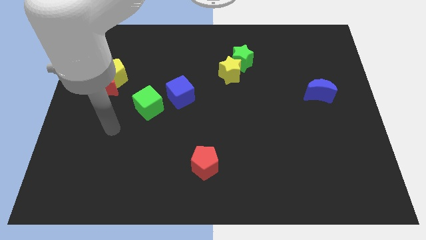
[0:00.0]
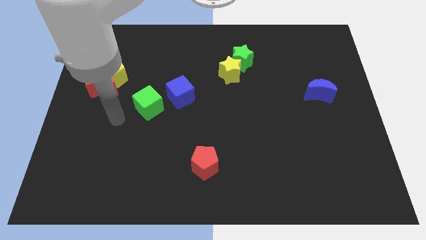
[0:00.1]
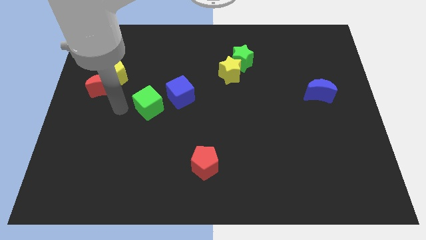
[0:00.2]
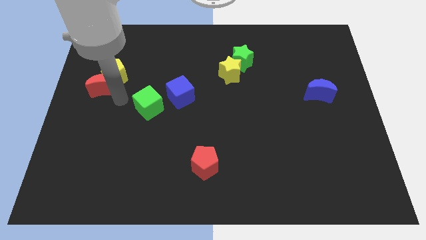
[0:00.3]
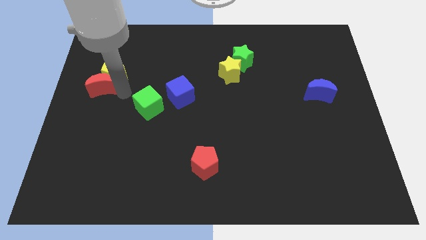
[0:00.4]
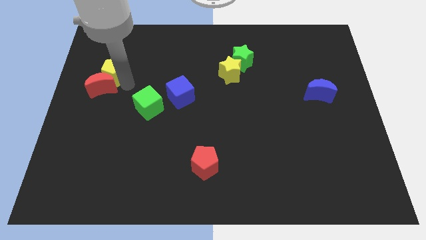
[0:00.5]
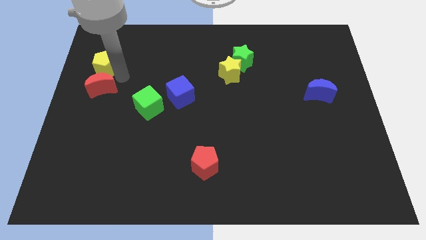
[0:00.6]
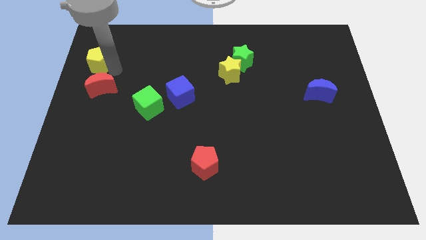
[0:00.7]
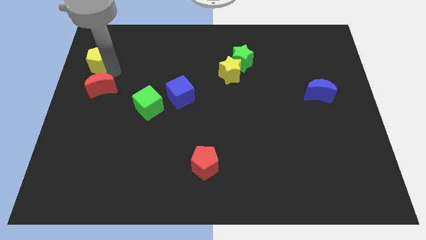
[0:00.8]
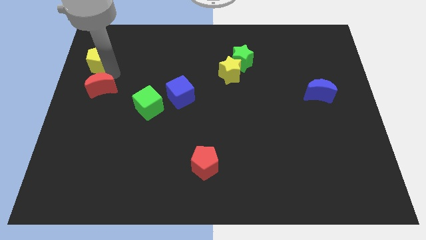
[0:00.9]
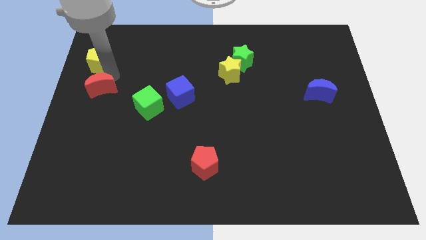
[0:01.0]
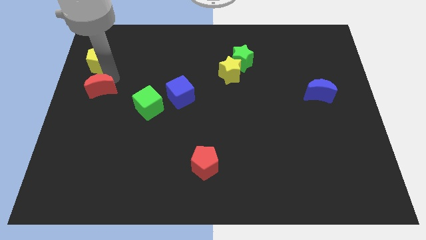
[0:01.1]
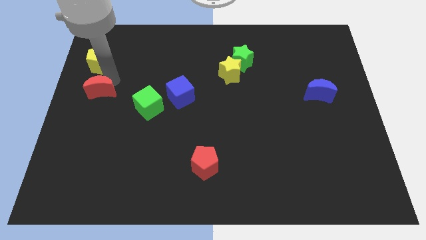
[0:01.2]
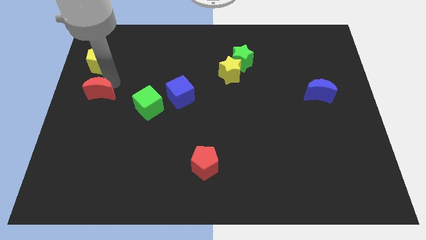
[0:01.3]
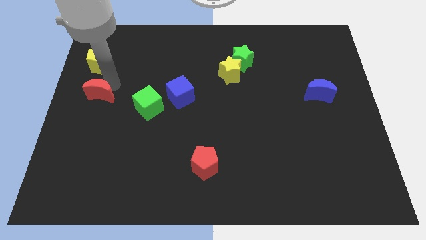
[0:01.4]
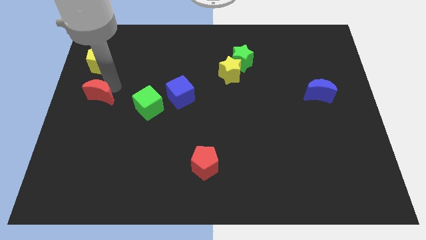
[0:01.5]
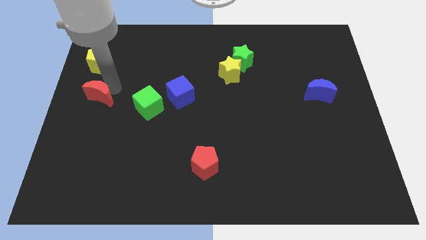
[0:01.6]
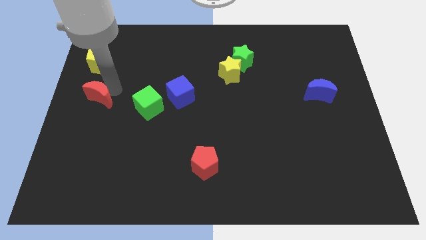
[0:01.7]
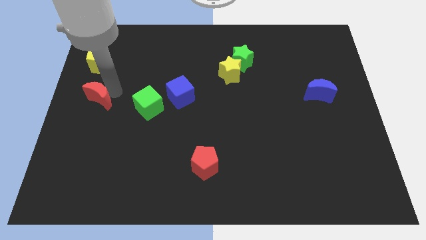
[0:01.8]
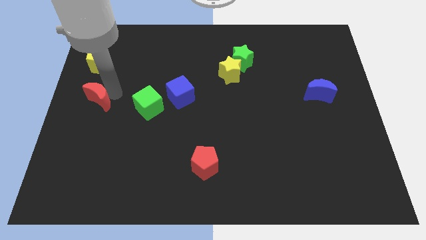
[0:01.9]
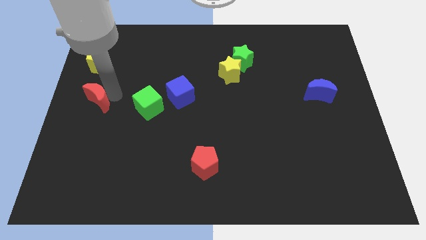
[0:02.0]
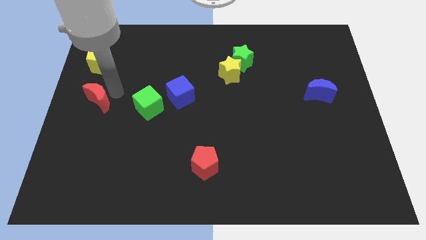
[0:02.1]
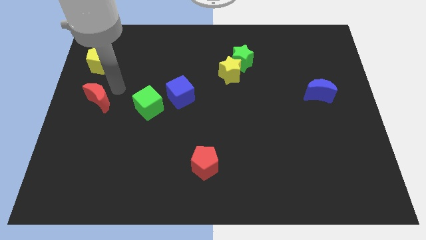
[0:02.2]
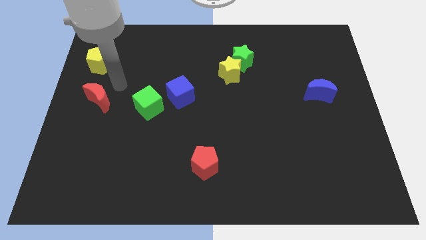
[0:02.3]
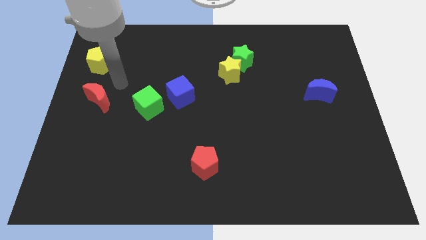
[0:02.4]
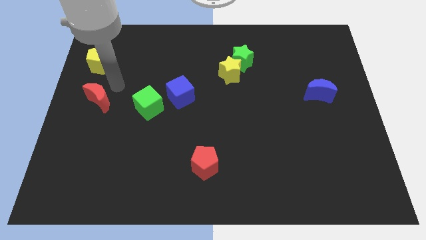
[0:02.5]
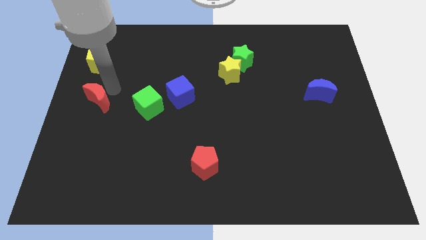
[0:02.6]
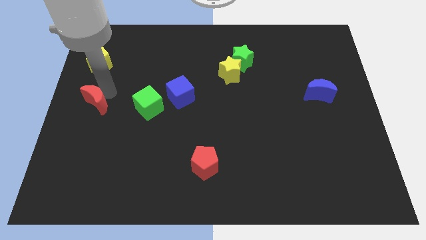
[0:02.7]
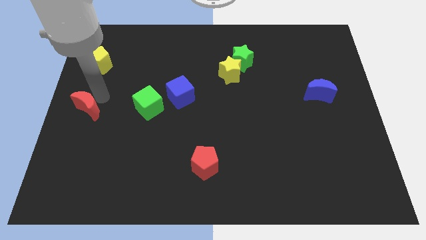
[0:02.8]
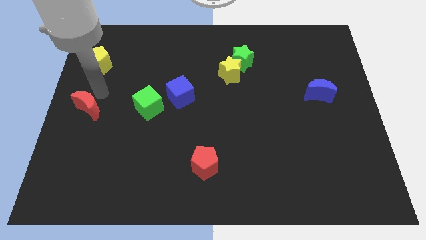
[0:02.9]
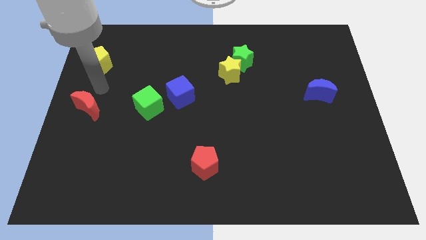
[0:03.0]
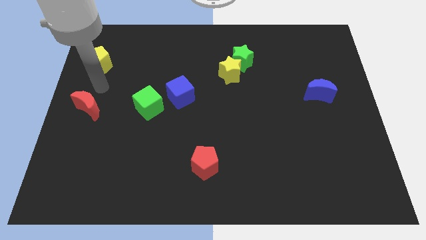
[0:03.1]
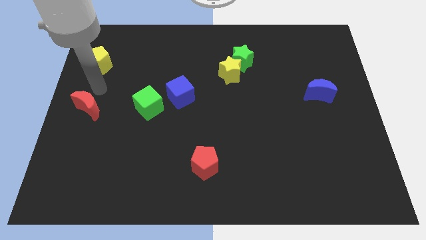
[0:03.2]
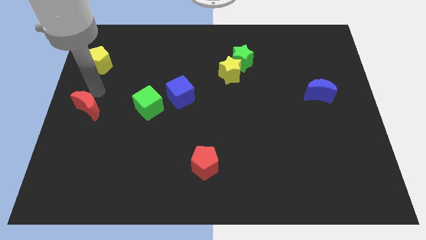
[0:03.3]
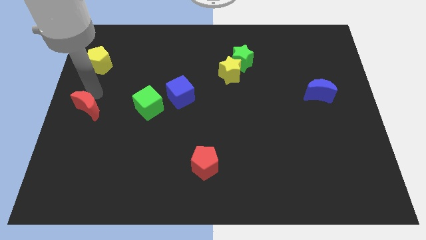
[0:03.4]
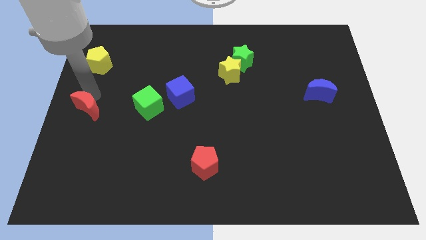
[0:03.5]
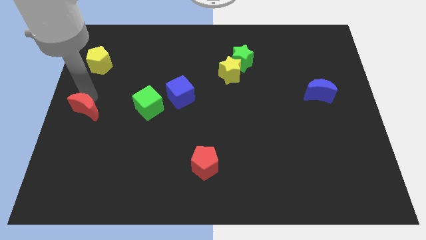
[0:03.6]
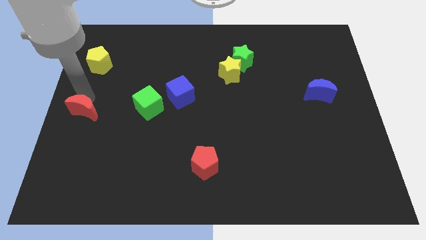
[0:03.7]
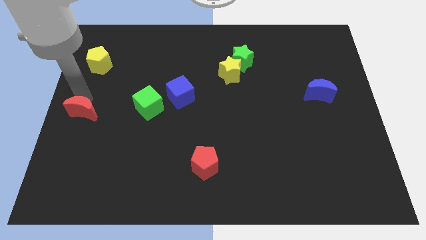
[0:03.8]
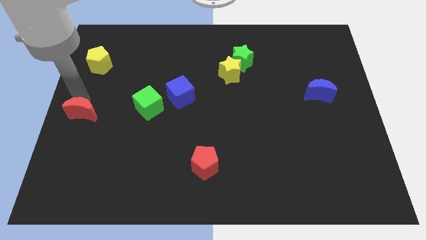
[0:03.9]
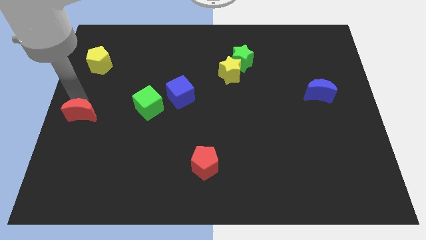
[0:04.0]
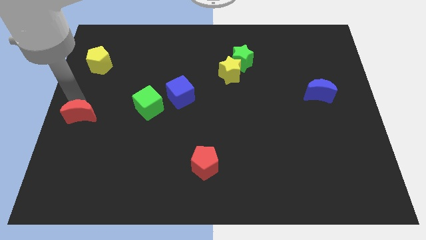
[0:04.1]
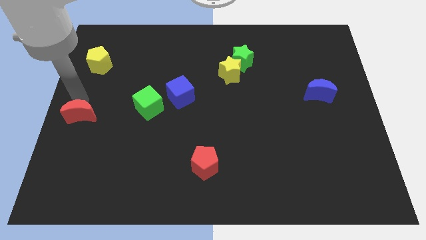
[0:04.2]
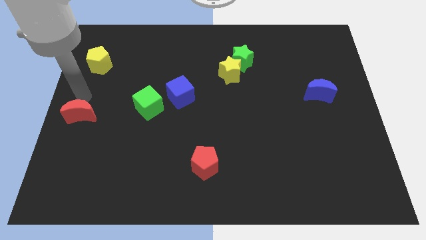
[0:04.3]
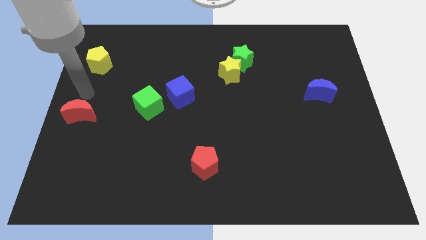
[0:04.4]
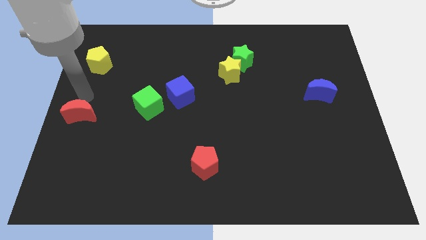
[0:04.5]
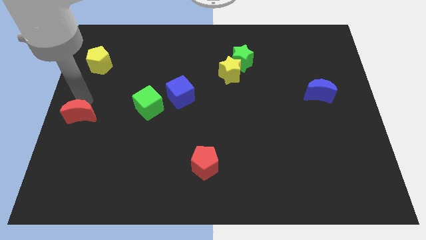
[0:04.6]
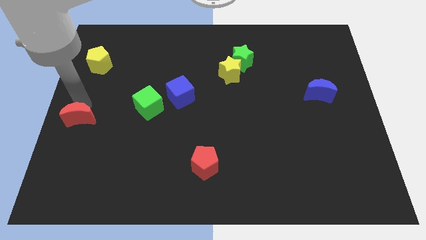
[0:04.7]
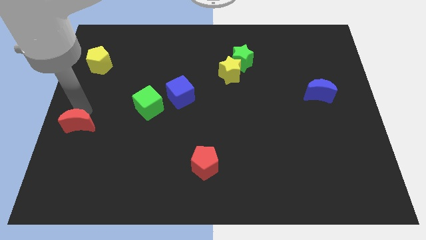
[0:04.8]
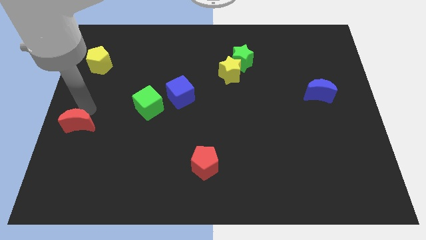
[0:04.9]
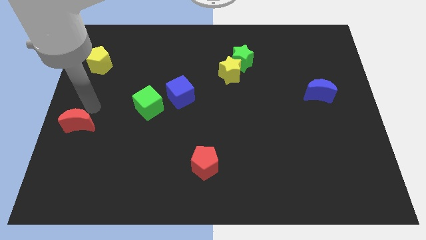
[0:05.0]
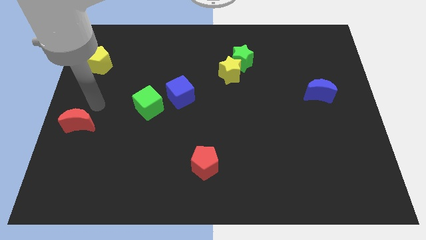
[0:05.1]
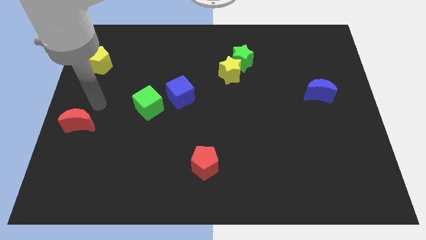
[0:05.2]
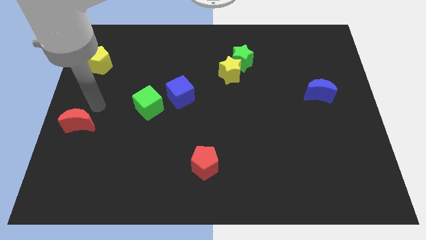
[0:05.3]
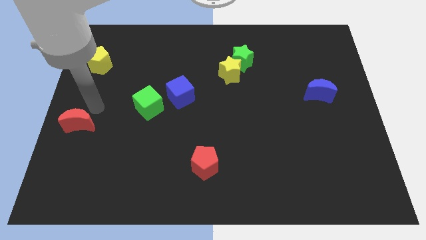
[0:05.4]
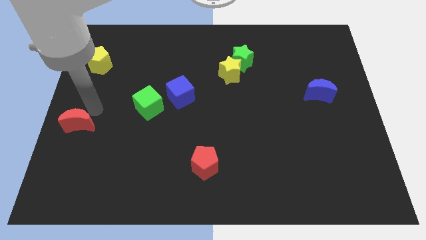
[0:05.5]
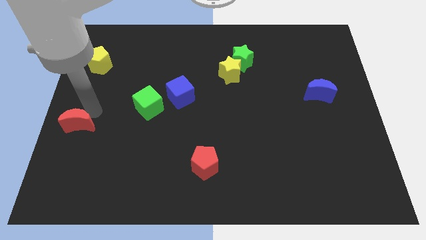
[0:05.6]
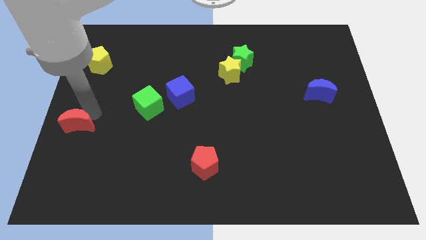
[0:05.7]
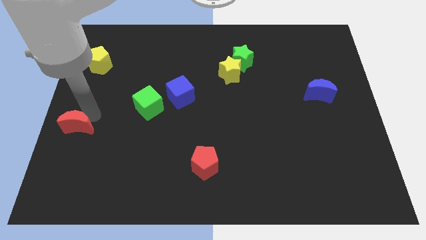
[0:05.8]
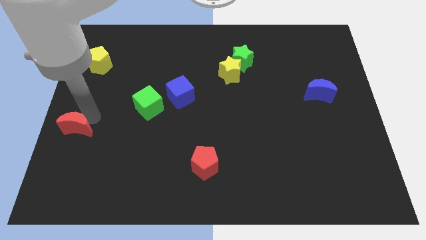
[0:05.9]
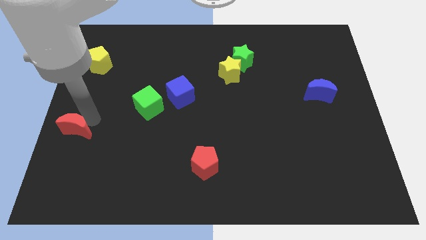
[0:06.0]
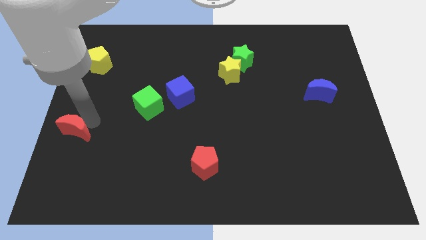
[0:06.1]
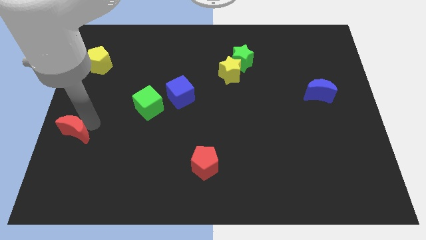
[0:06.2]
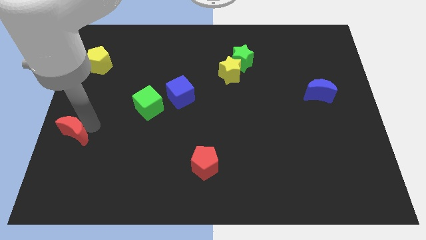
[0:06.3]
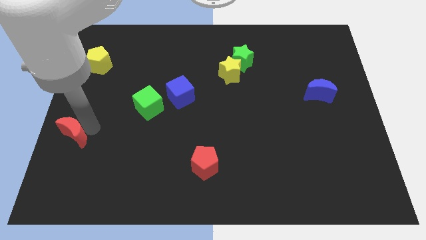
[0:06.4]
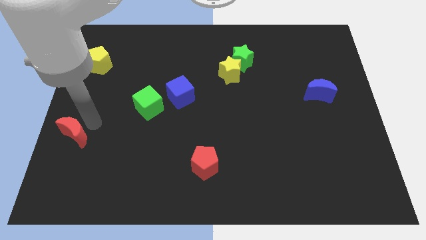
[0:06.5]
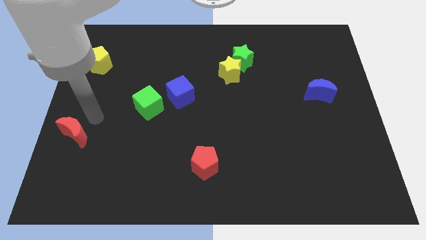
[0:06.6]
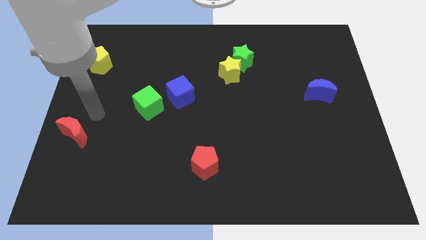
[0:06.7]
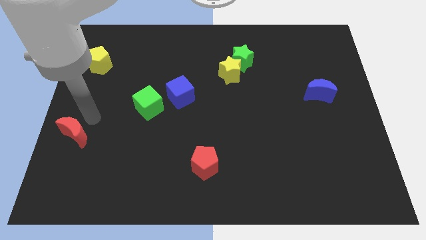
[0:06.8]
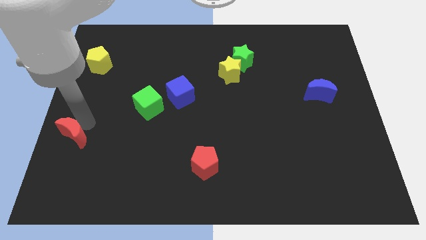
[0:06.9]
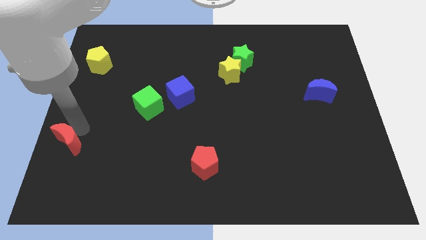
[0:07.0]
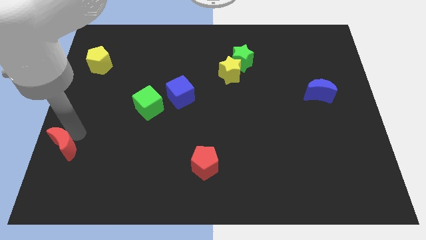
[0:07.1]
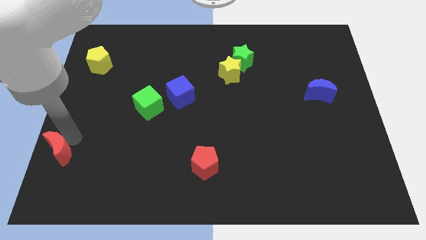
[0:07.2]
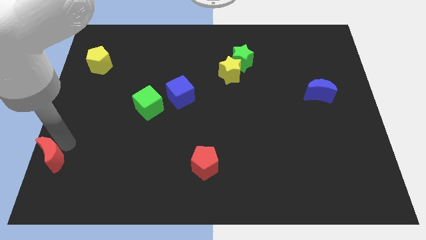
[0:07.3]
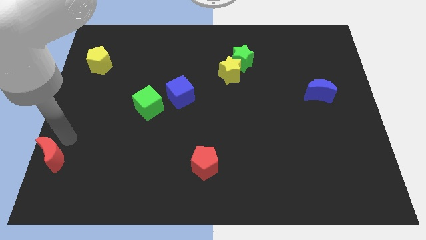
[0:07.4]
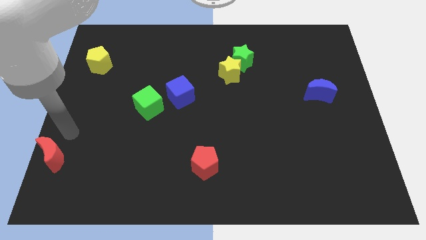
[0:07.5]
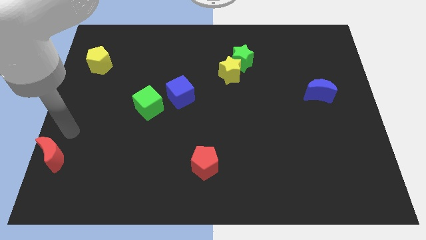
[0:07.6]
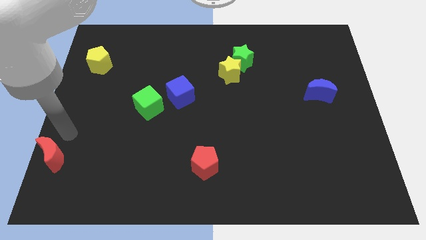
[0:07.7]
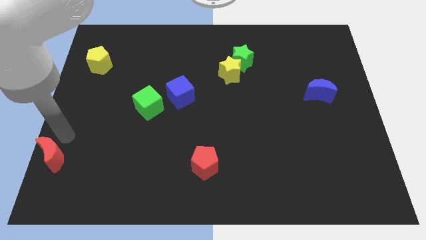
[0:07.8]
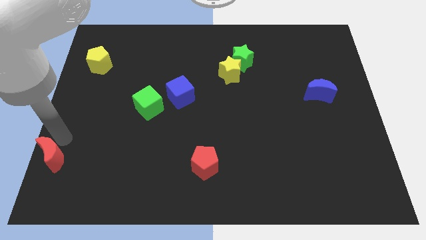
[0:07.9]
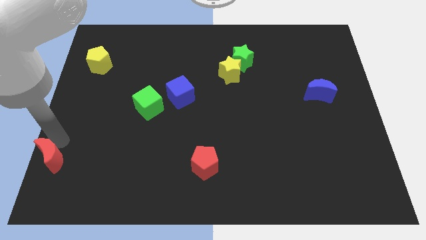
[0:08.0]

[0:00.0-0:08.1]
slide the red moon to the bottom left corner
